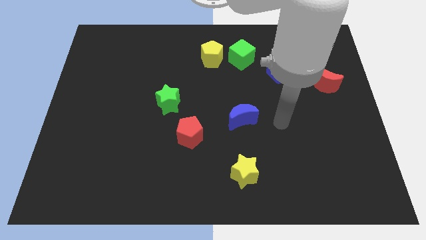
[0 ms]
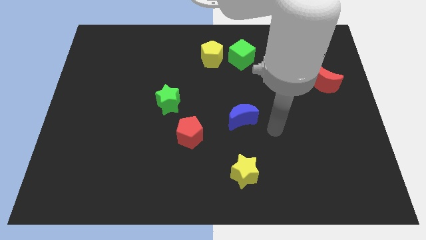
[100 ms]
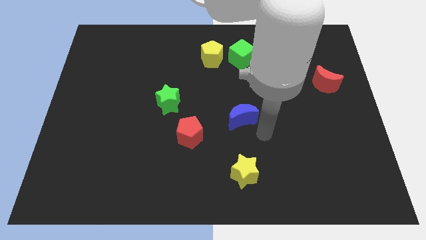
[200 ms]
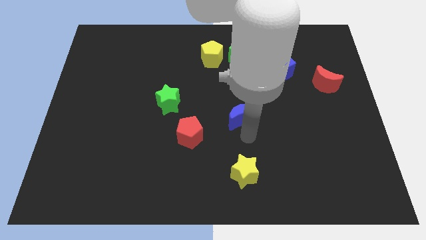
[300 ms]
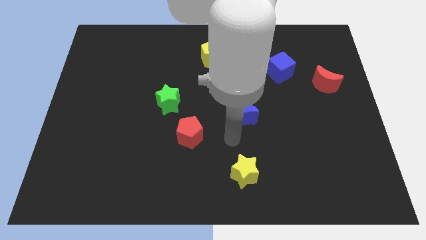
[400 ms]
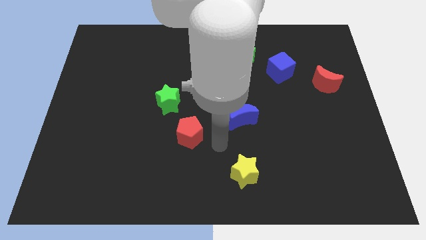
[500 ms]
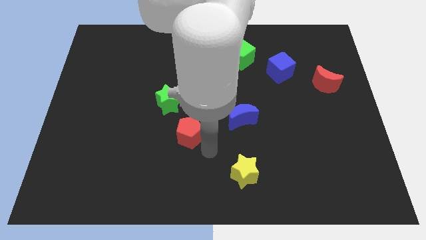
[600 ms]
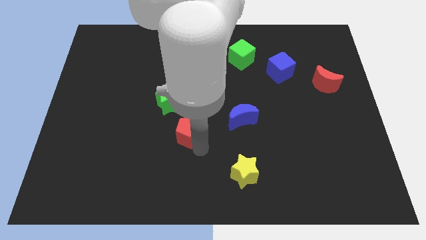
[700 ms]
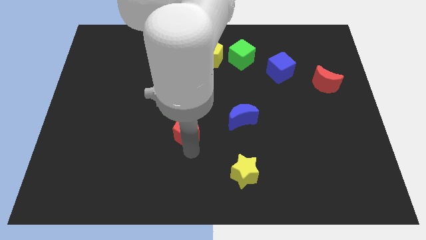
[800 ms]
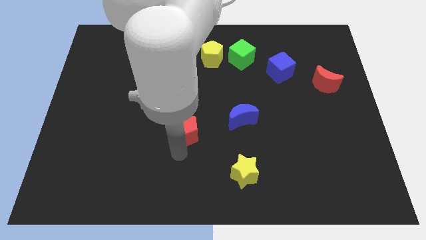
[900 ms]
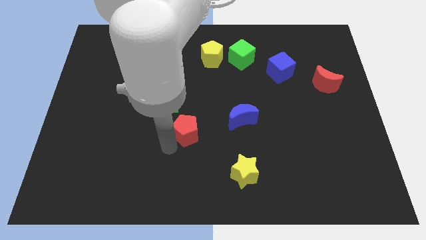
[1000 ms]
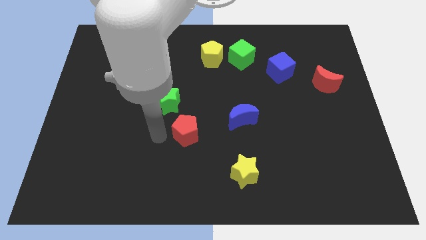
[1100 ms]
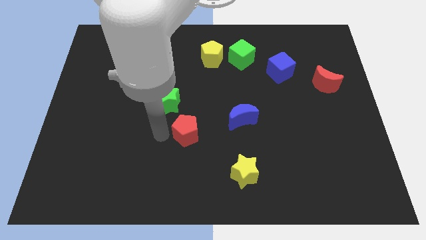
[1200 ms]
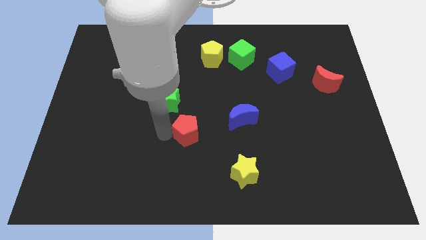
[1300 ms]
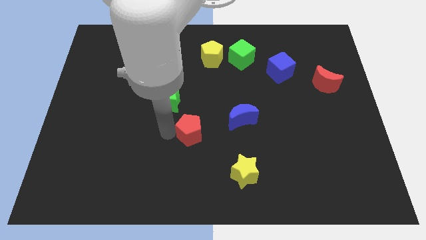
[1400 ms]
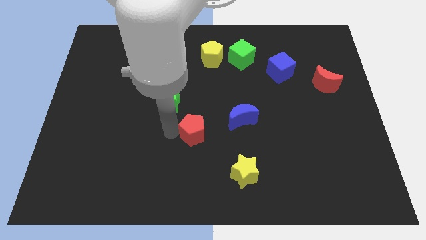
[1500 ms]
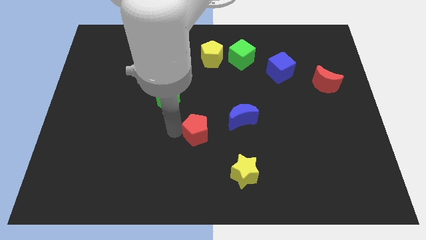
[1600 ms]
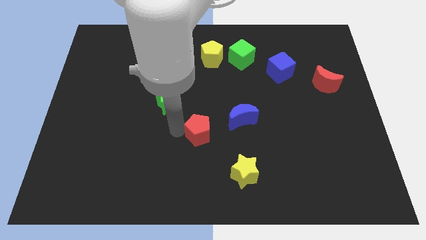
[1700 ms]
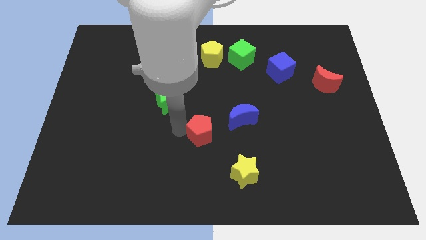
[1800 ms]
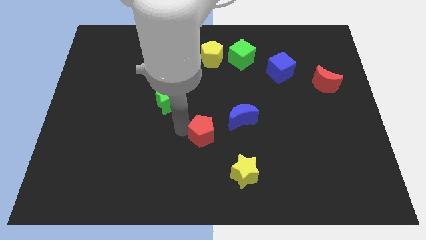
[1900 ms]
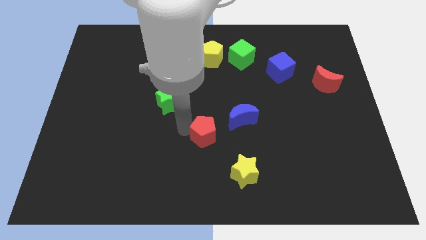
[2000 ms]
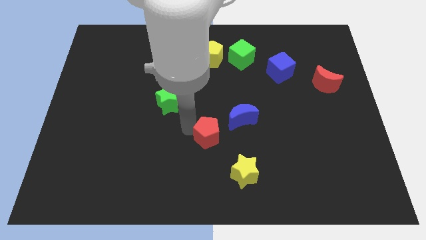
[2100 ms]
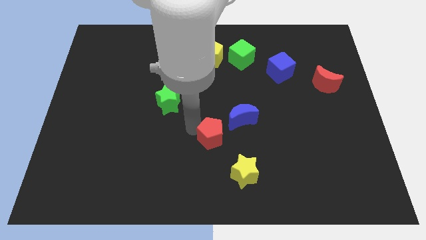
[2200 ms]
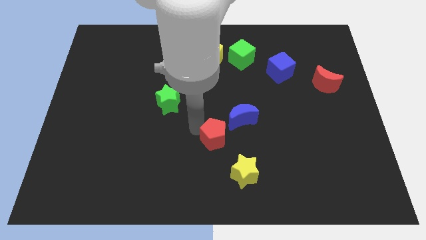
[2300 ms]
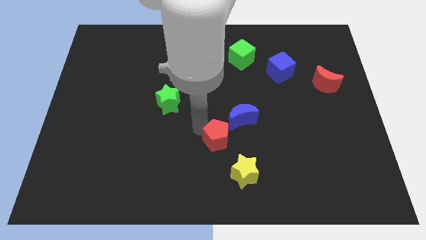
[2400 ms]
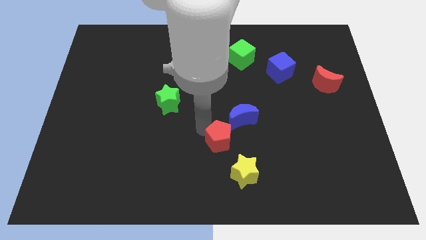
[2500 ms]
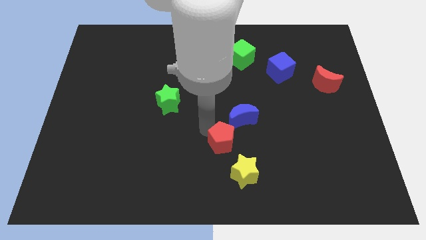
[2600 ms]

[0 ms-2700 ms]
slightly slide the red pentagon to the right

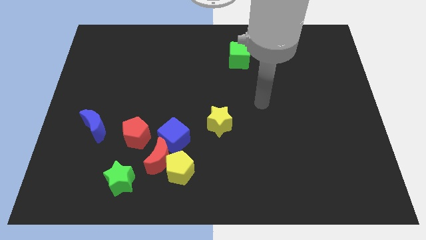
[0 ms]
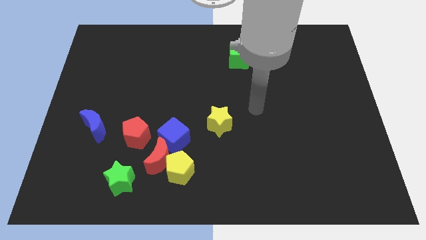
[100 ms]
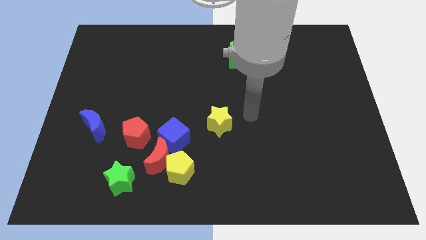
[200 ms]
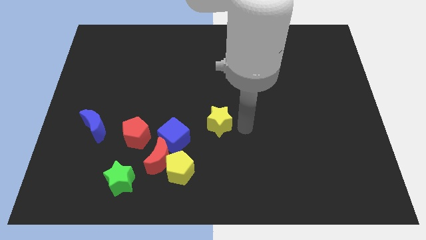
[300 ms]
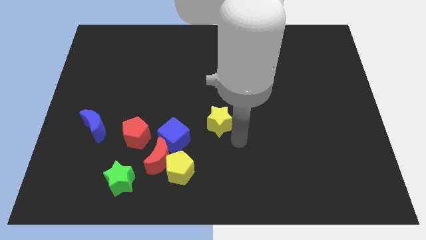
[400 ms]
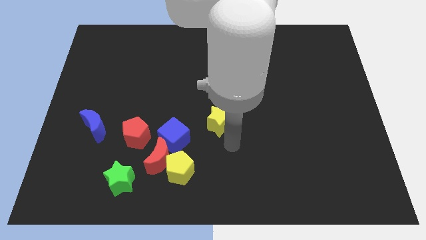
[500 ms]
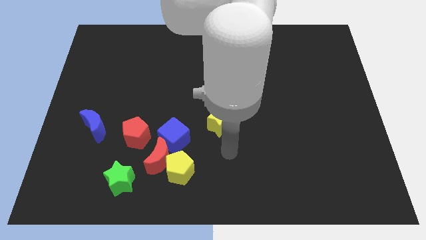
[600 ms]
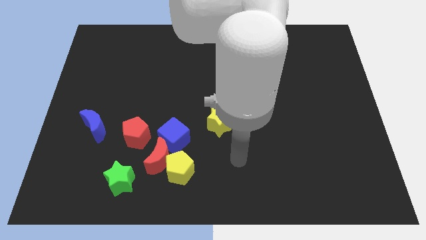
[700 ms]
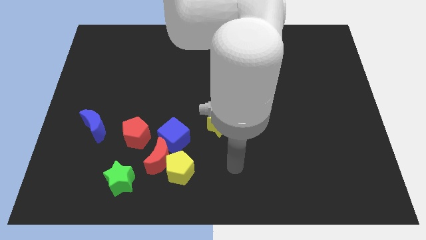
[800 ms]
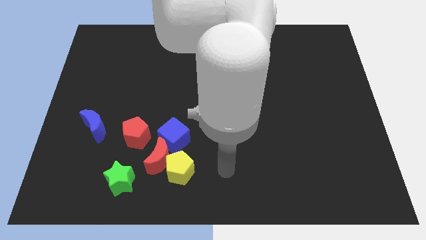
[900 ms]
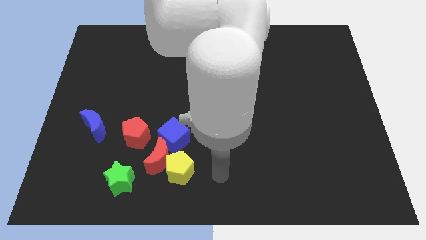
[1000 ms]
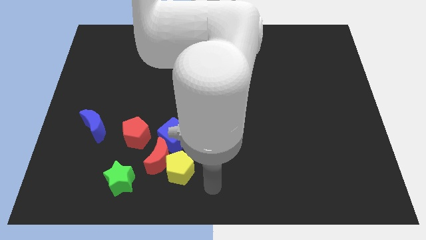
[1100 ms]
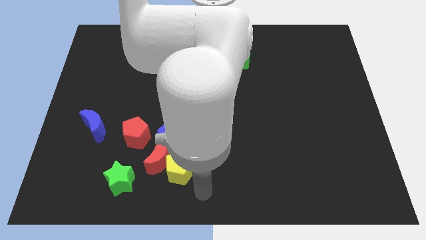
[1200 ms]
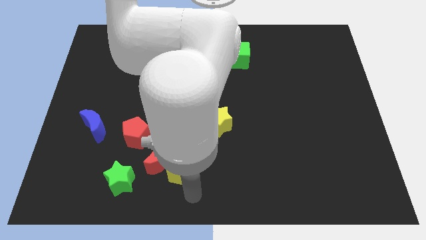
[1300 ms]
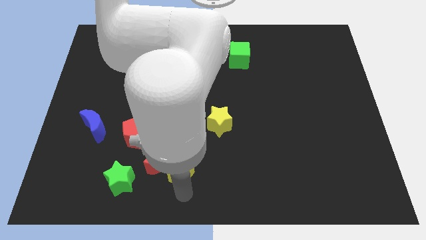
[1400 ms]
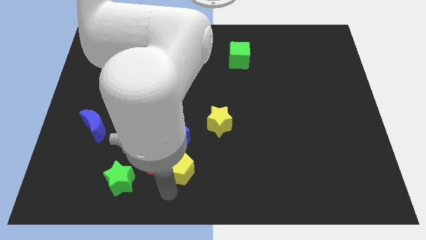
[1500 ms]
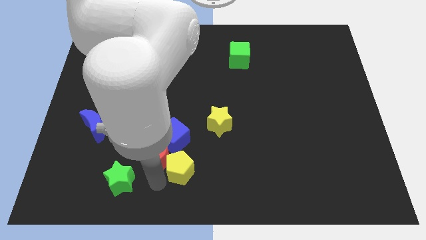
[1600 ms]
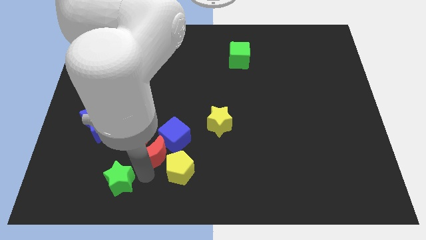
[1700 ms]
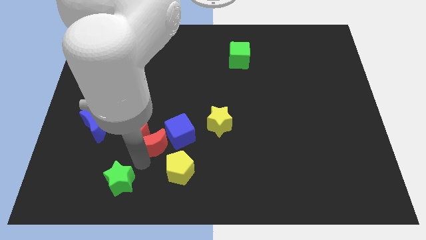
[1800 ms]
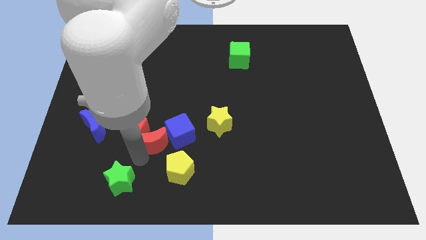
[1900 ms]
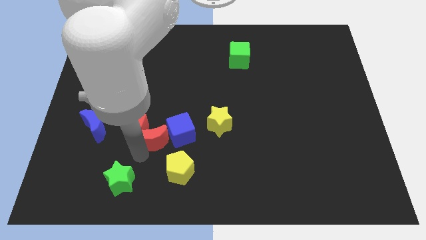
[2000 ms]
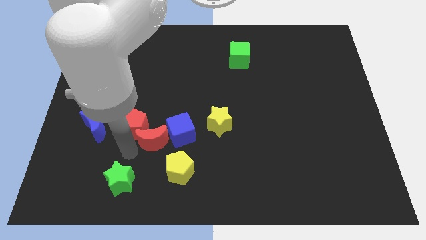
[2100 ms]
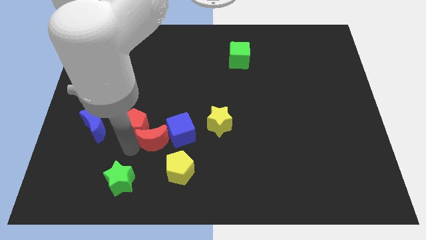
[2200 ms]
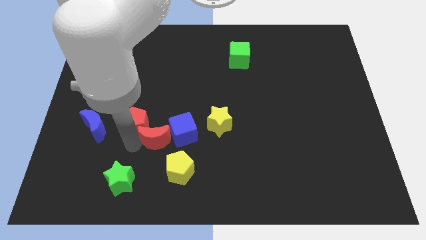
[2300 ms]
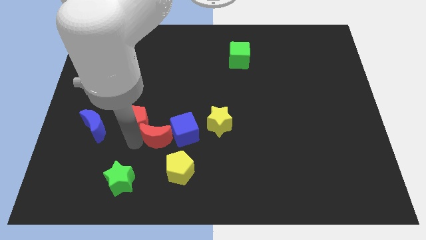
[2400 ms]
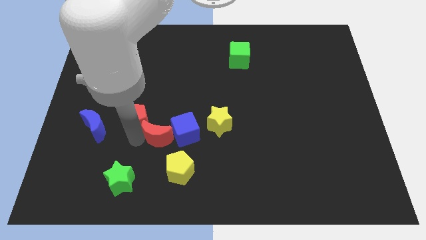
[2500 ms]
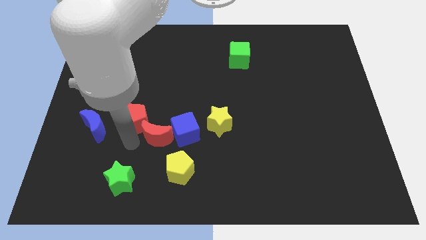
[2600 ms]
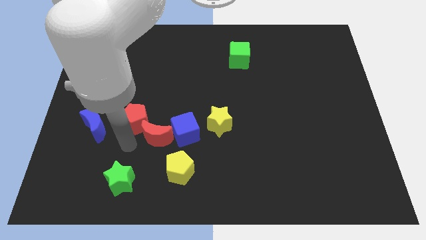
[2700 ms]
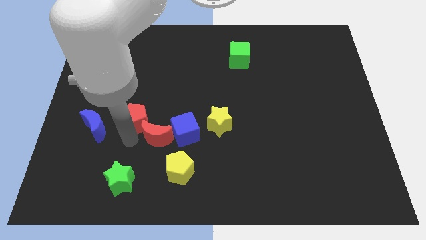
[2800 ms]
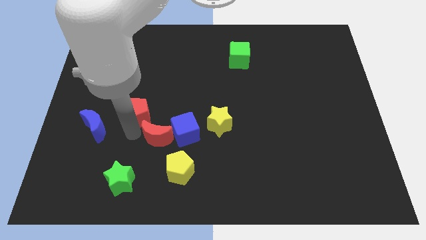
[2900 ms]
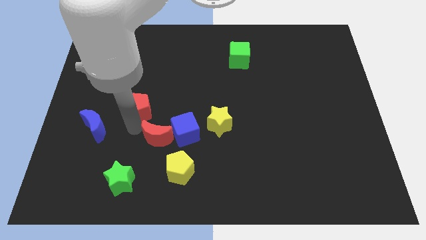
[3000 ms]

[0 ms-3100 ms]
slightly move the red pentagon up

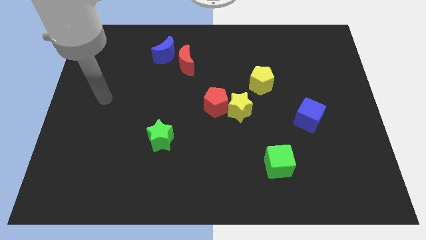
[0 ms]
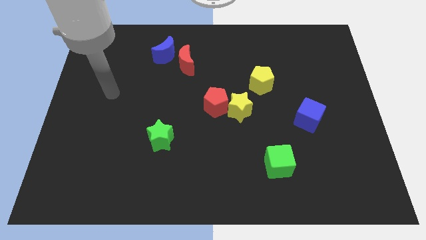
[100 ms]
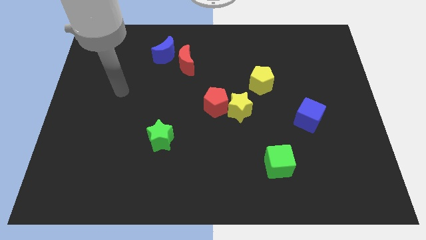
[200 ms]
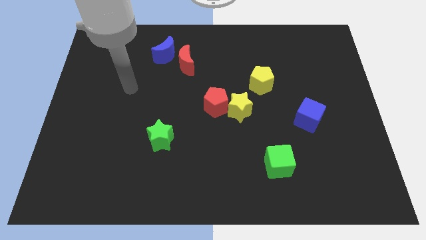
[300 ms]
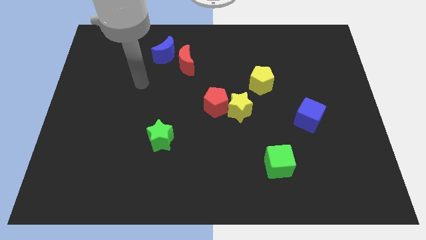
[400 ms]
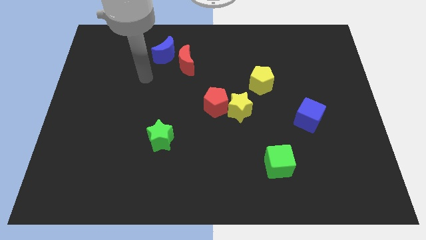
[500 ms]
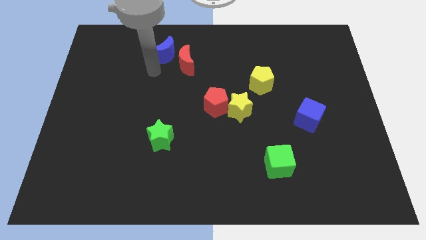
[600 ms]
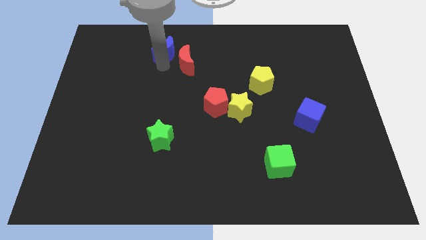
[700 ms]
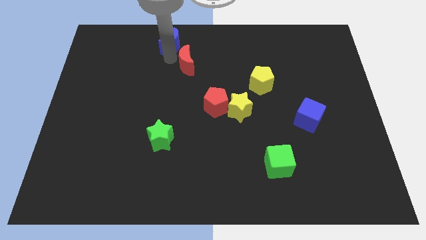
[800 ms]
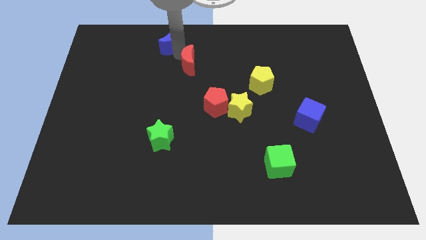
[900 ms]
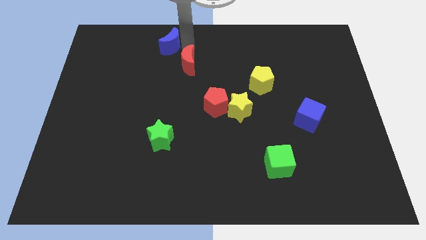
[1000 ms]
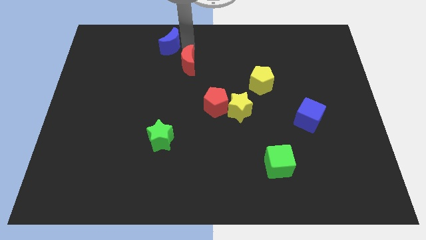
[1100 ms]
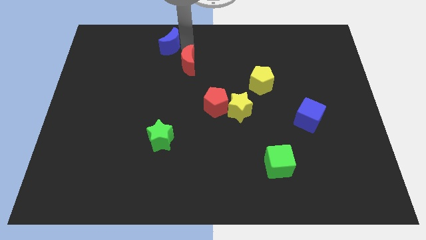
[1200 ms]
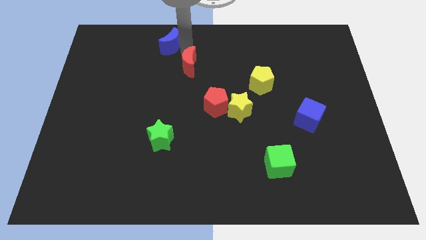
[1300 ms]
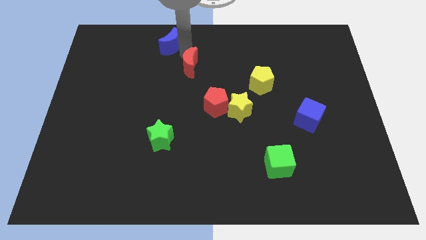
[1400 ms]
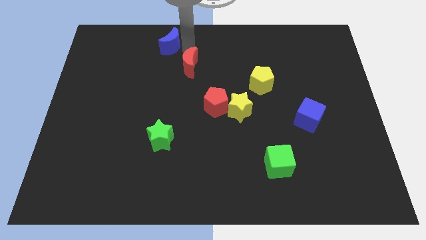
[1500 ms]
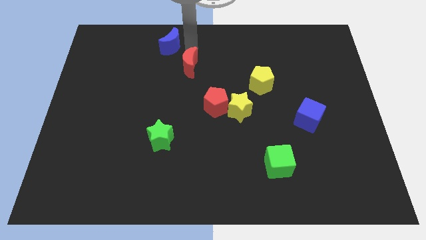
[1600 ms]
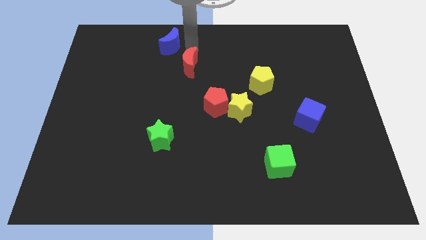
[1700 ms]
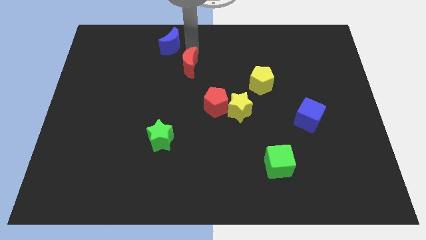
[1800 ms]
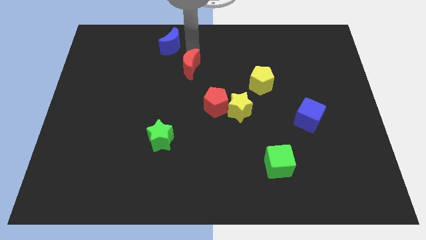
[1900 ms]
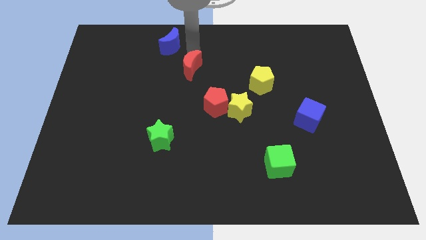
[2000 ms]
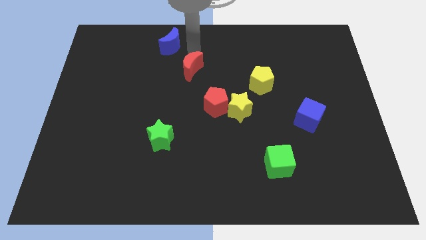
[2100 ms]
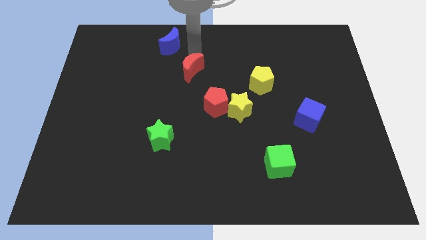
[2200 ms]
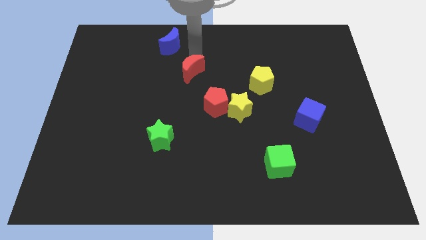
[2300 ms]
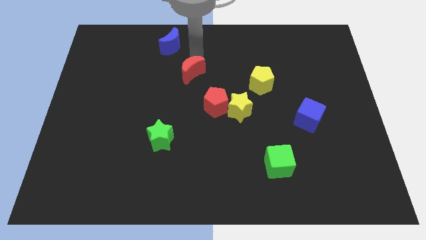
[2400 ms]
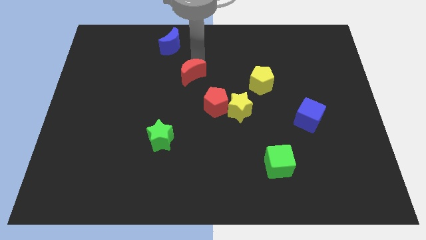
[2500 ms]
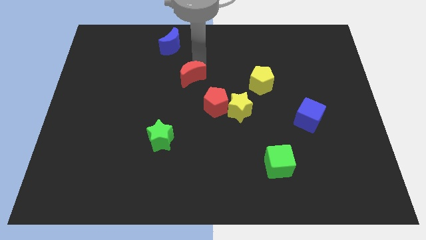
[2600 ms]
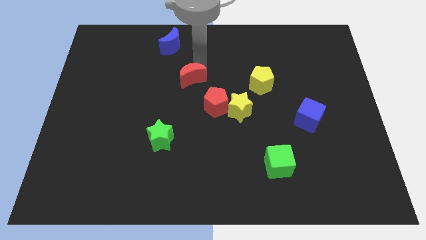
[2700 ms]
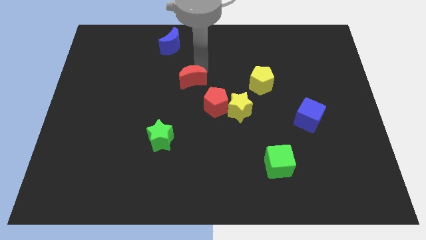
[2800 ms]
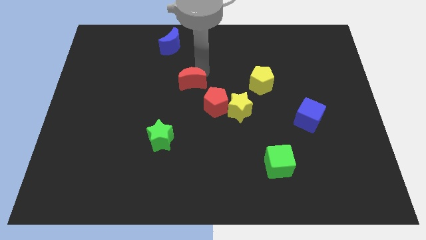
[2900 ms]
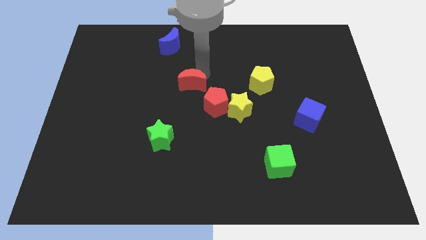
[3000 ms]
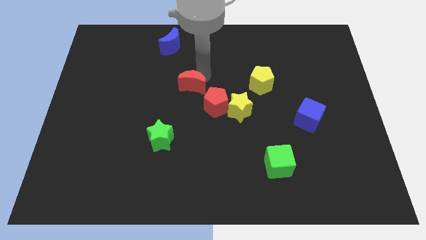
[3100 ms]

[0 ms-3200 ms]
slightly slide the red moon downwards
